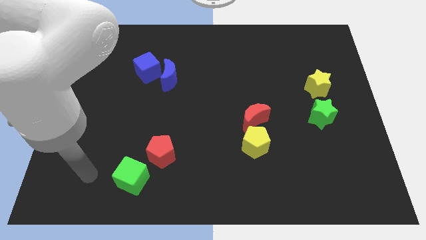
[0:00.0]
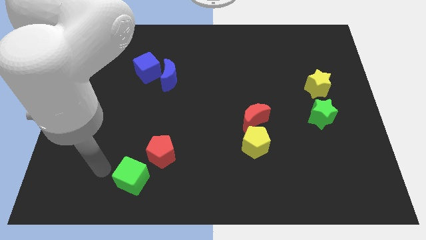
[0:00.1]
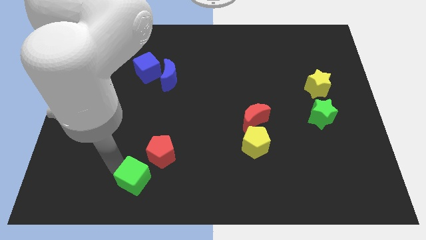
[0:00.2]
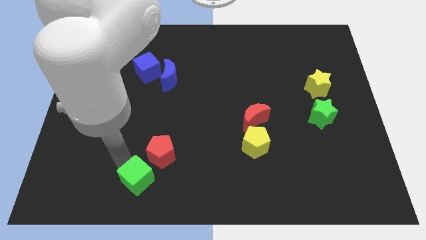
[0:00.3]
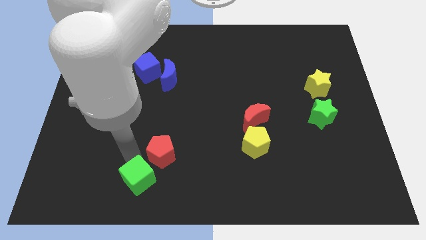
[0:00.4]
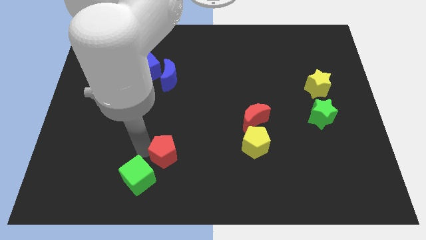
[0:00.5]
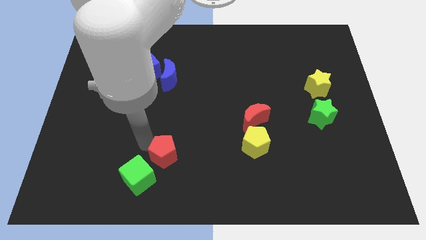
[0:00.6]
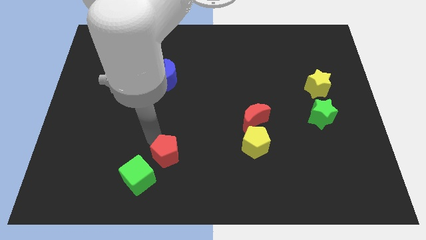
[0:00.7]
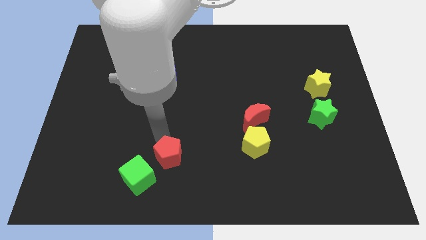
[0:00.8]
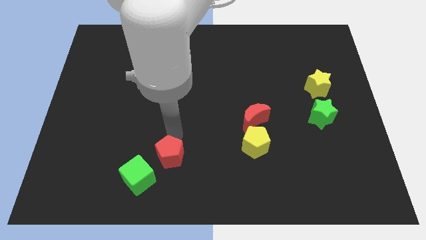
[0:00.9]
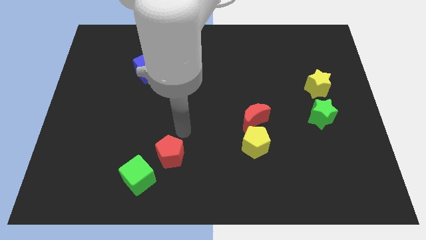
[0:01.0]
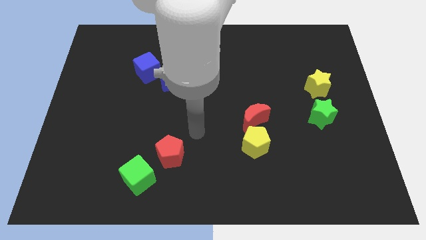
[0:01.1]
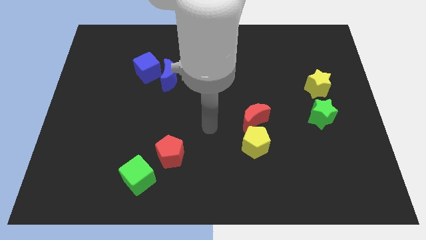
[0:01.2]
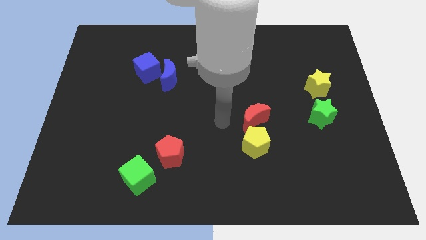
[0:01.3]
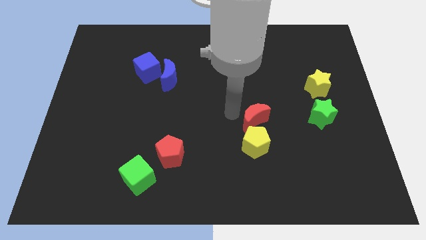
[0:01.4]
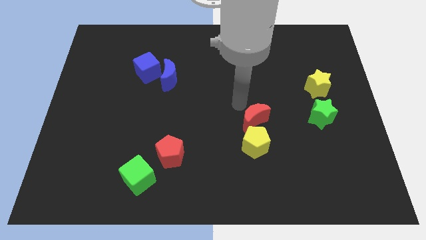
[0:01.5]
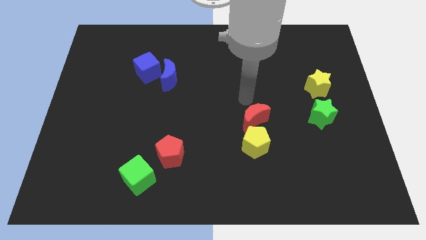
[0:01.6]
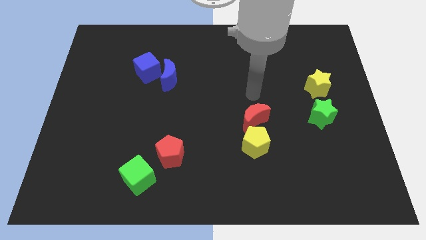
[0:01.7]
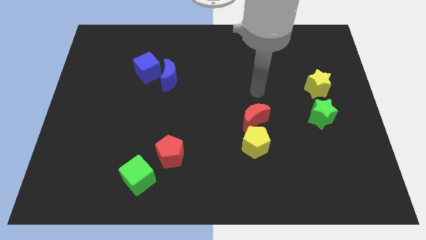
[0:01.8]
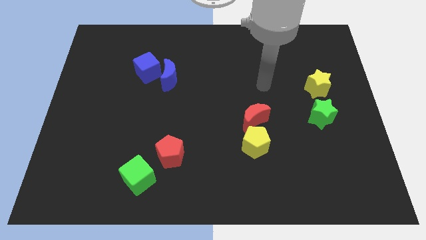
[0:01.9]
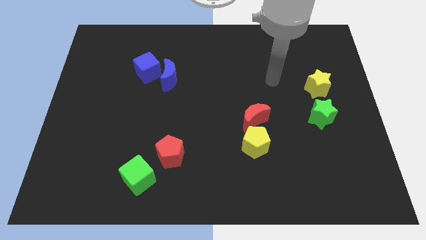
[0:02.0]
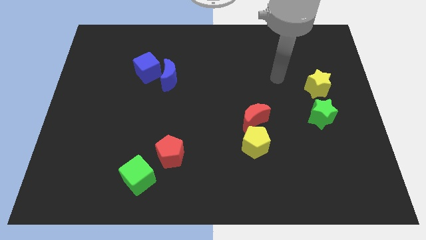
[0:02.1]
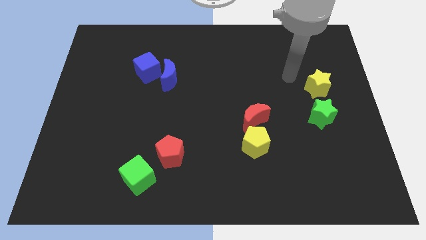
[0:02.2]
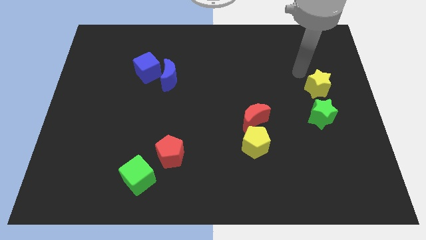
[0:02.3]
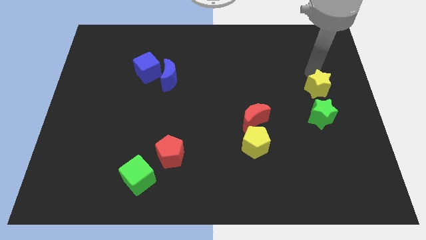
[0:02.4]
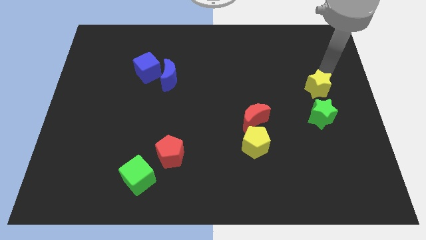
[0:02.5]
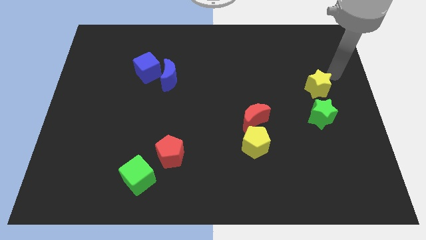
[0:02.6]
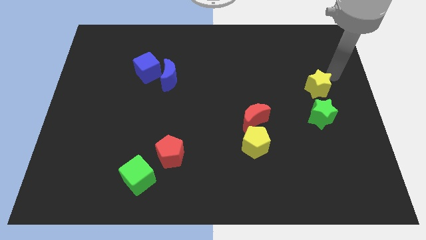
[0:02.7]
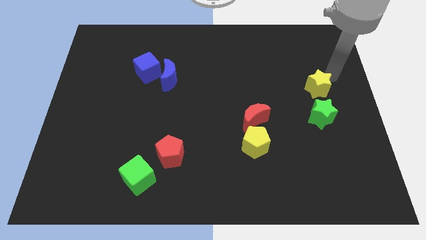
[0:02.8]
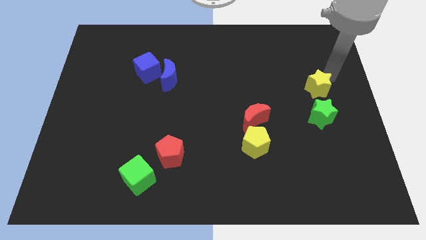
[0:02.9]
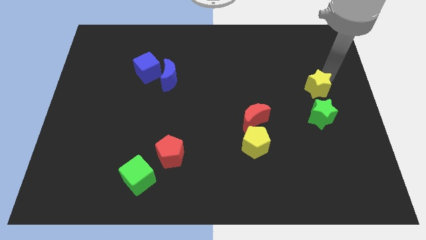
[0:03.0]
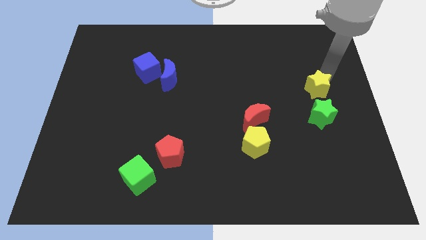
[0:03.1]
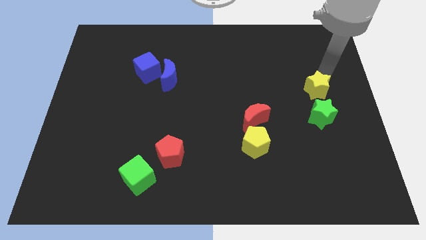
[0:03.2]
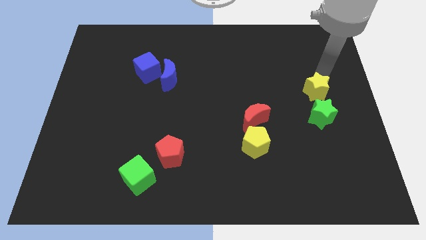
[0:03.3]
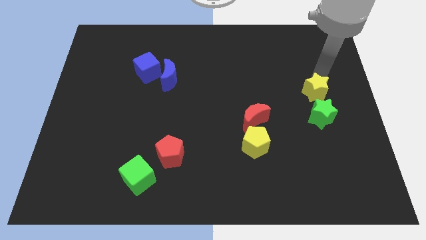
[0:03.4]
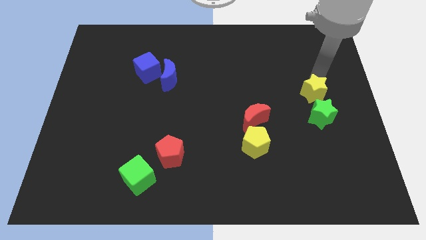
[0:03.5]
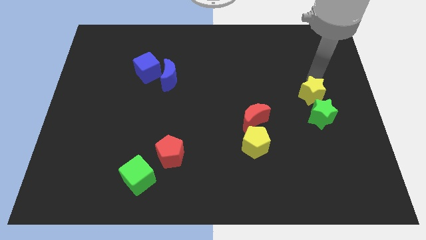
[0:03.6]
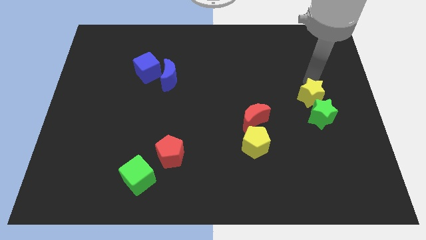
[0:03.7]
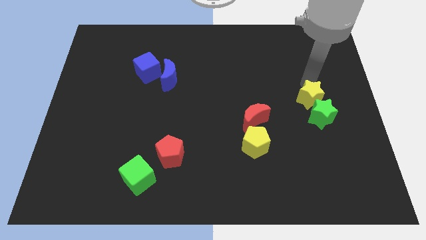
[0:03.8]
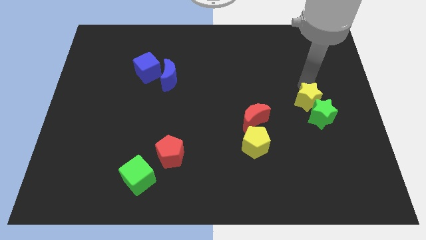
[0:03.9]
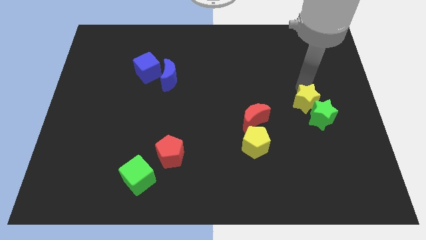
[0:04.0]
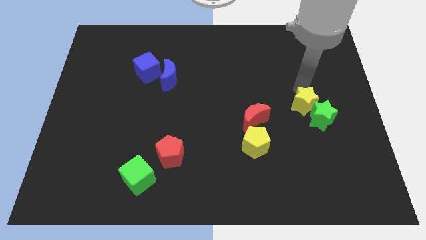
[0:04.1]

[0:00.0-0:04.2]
move the yellow star a little downwards and then left

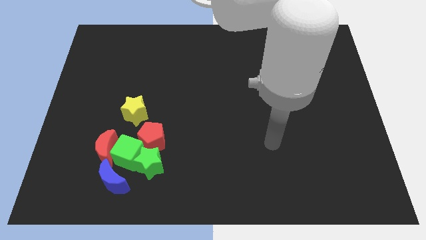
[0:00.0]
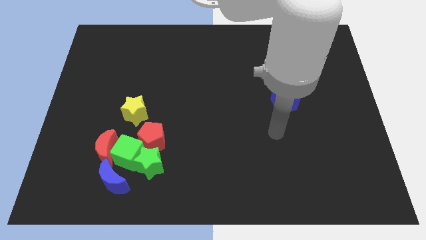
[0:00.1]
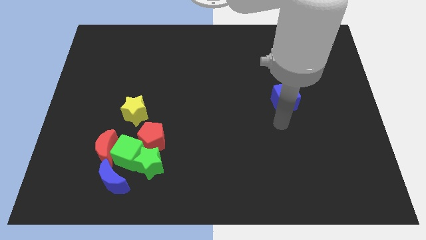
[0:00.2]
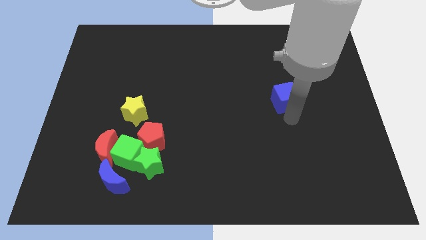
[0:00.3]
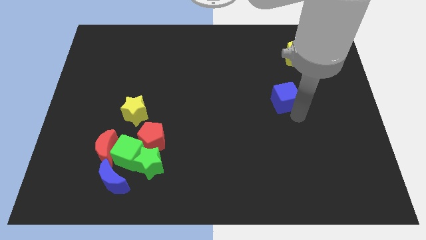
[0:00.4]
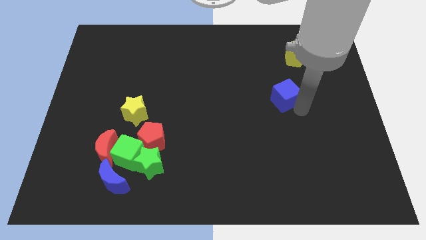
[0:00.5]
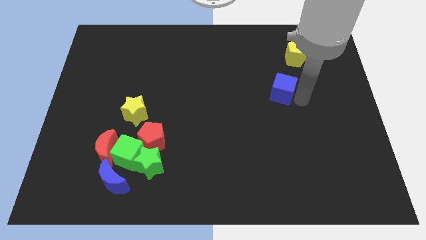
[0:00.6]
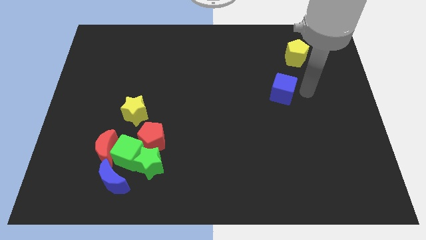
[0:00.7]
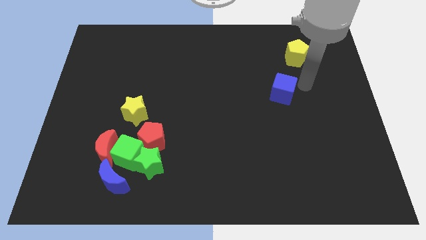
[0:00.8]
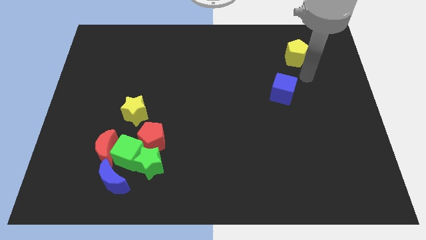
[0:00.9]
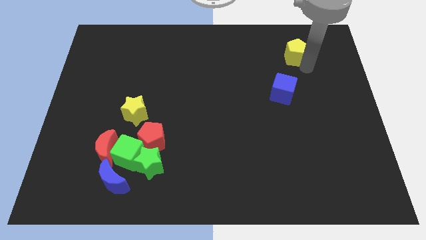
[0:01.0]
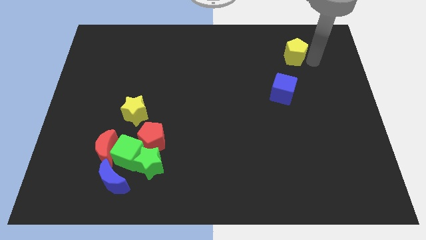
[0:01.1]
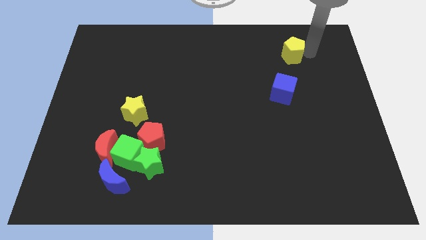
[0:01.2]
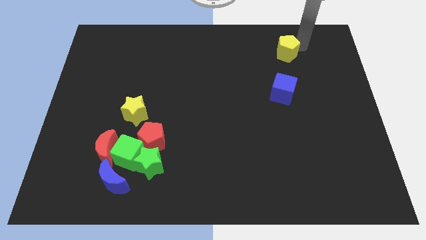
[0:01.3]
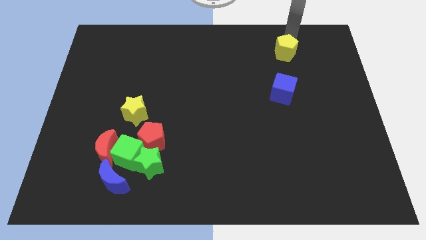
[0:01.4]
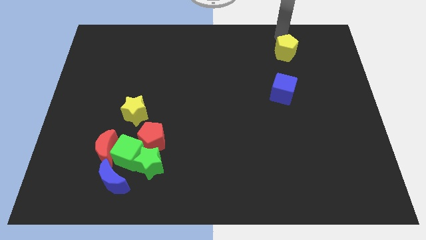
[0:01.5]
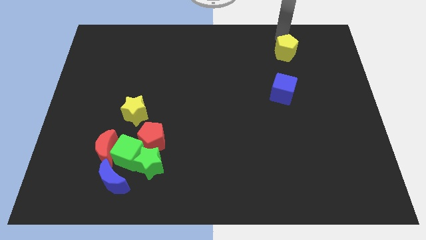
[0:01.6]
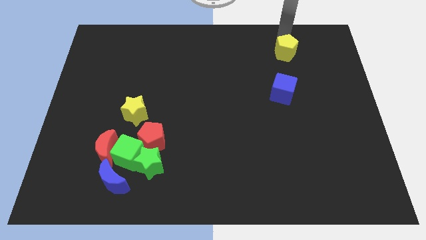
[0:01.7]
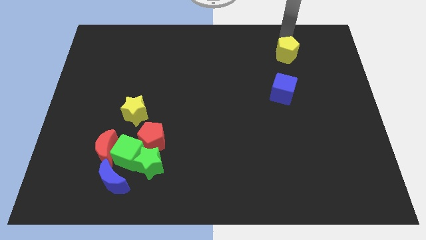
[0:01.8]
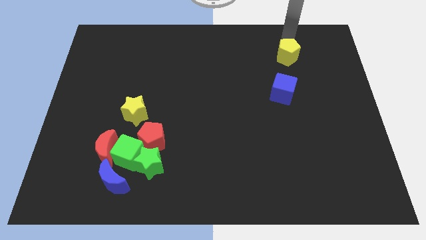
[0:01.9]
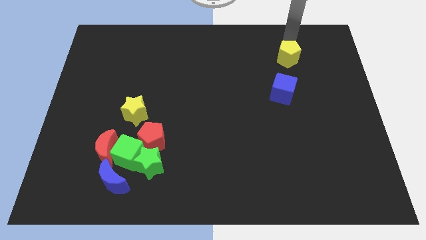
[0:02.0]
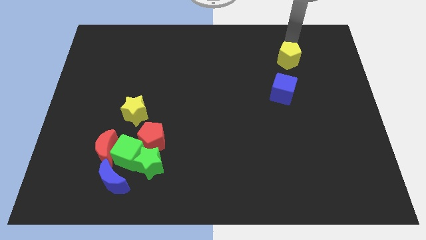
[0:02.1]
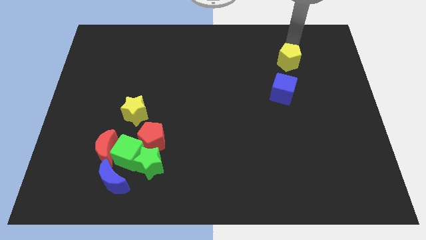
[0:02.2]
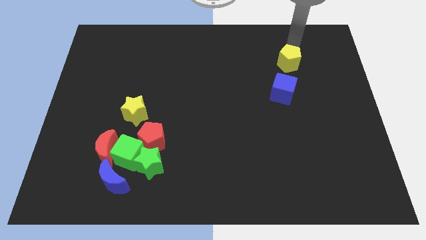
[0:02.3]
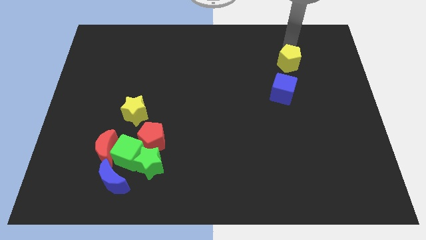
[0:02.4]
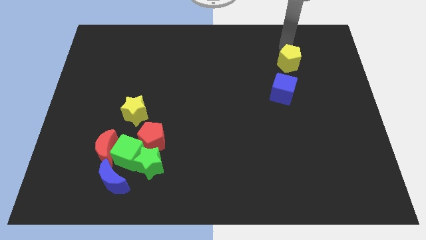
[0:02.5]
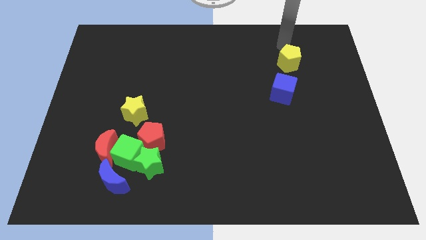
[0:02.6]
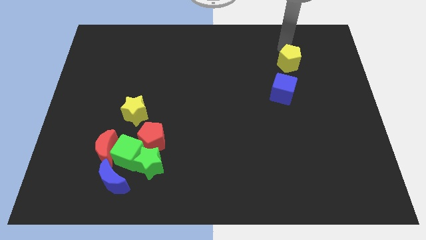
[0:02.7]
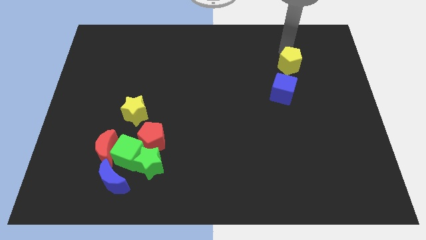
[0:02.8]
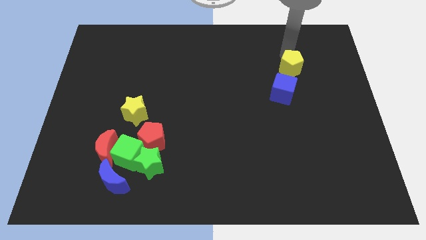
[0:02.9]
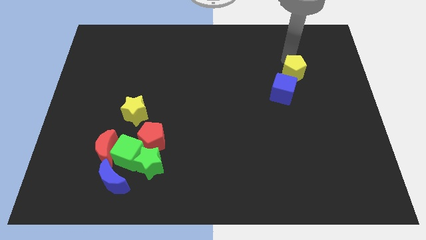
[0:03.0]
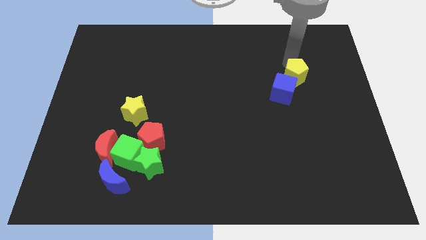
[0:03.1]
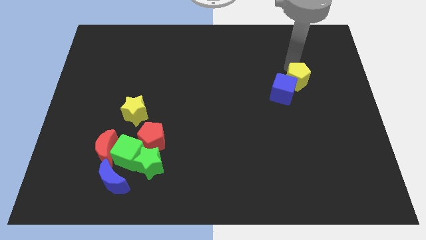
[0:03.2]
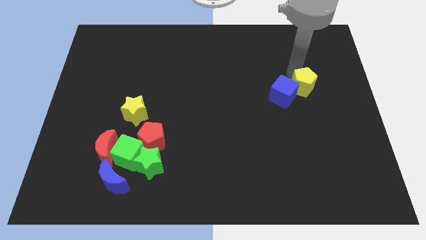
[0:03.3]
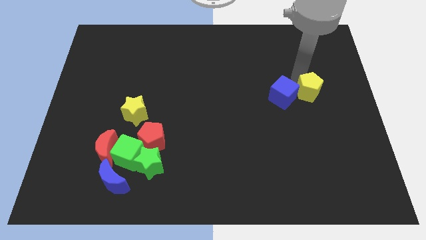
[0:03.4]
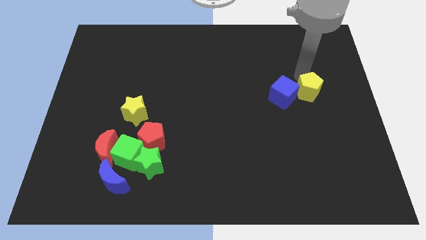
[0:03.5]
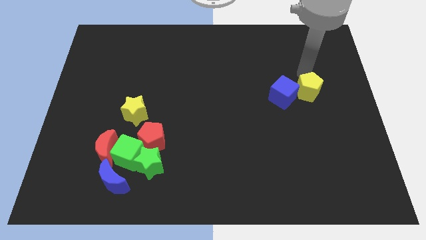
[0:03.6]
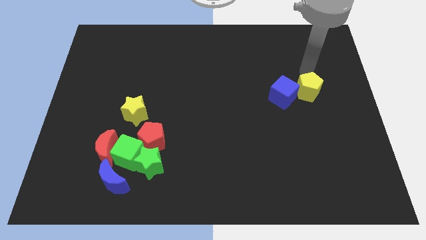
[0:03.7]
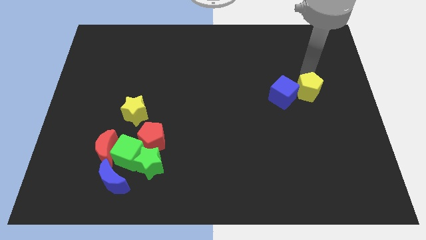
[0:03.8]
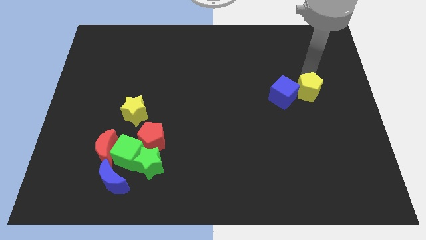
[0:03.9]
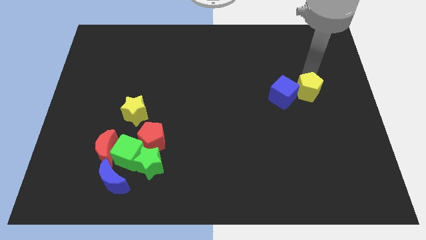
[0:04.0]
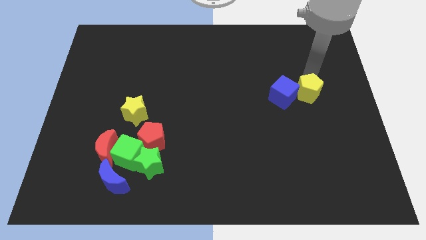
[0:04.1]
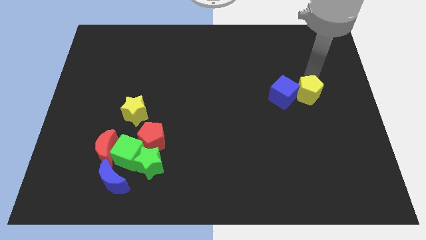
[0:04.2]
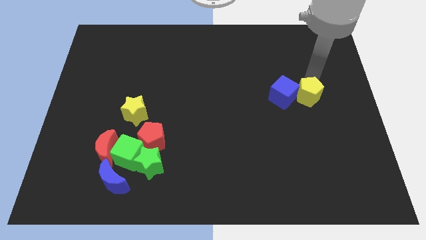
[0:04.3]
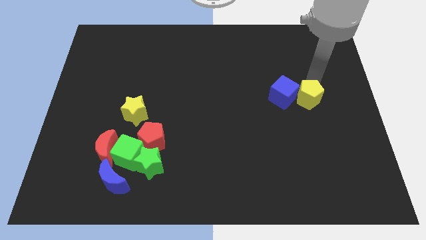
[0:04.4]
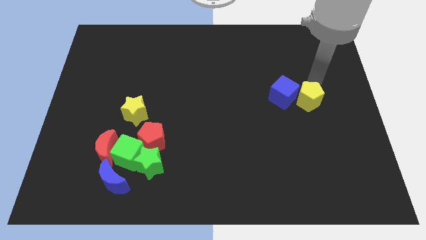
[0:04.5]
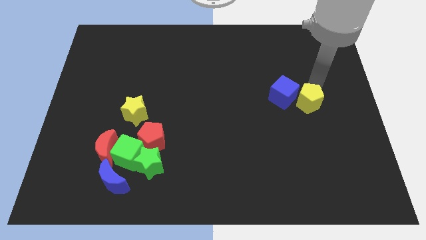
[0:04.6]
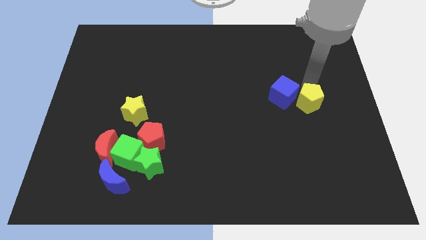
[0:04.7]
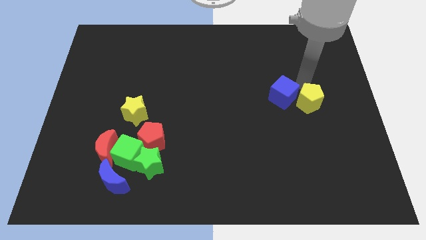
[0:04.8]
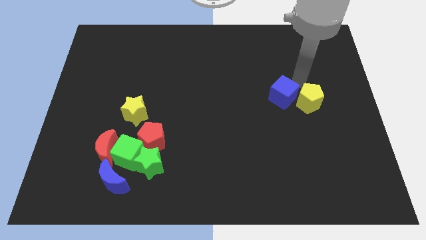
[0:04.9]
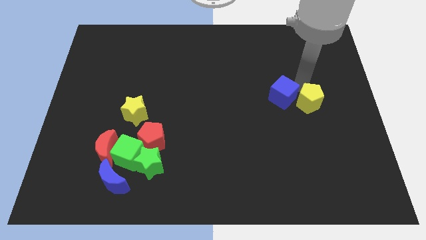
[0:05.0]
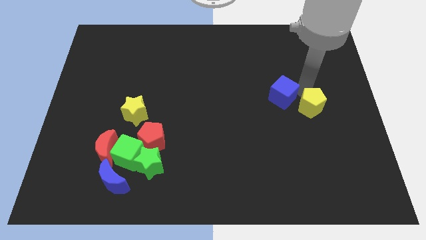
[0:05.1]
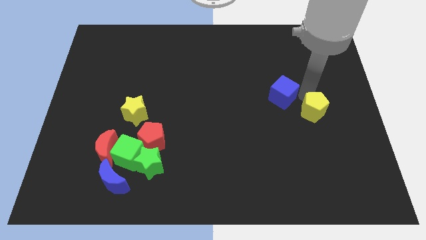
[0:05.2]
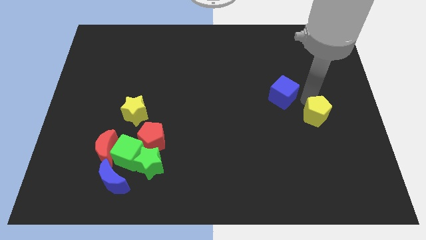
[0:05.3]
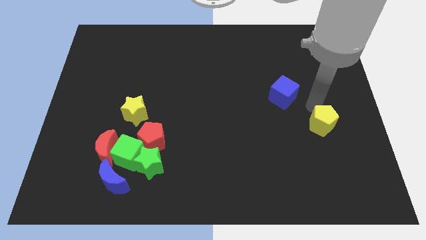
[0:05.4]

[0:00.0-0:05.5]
push the yellow pentagon downwards
